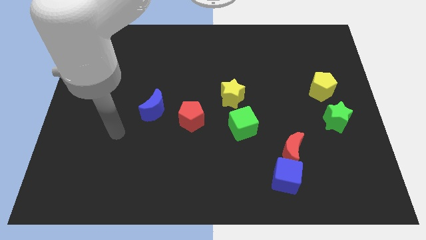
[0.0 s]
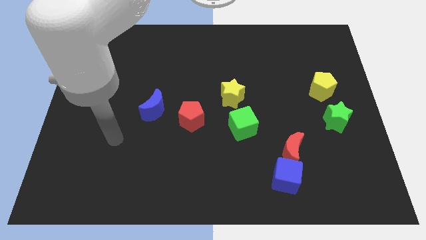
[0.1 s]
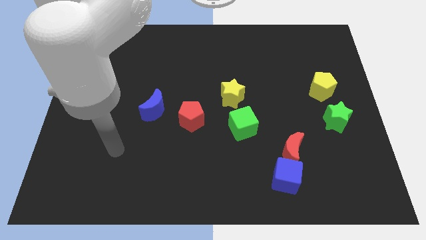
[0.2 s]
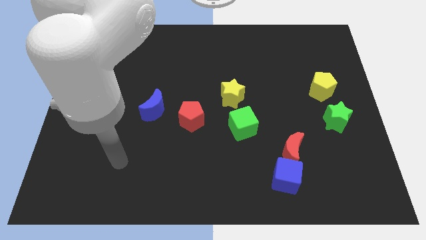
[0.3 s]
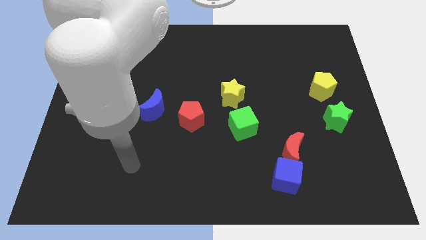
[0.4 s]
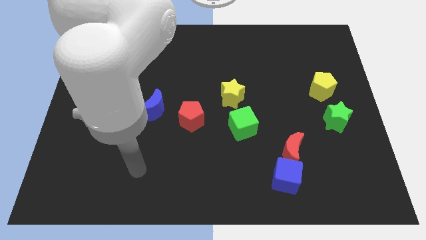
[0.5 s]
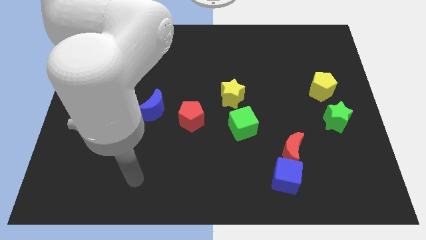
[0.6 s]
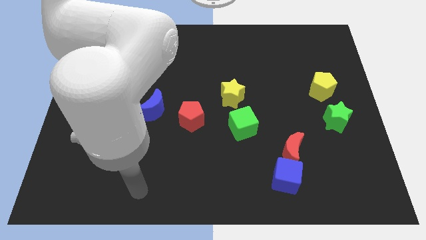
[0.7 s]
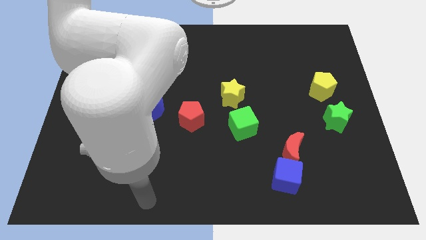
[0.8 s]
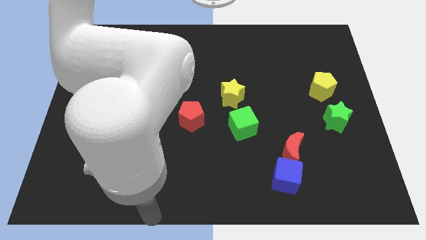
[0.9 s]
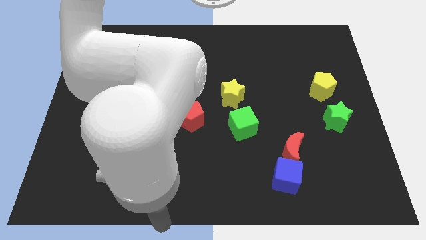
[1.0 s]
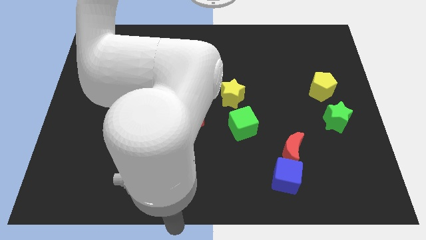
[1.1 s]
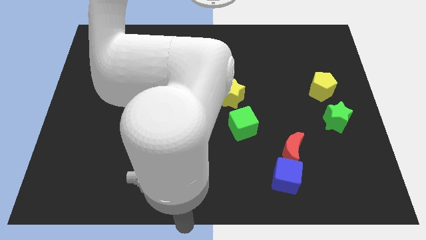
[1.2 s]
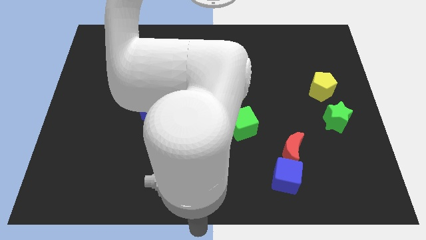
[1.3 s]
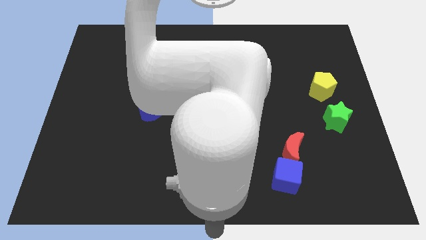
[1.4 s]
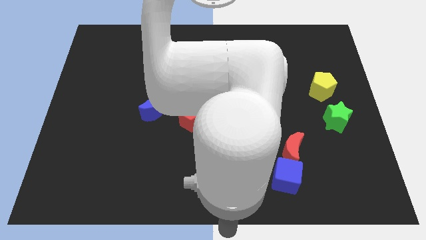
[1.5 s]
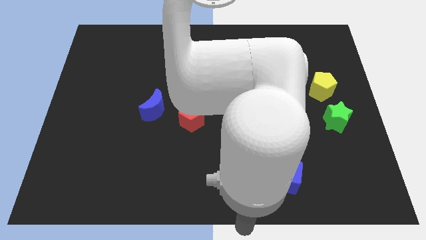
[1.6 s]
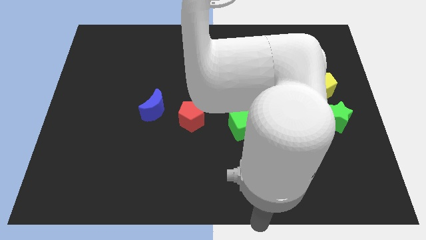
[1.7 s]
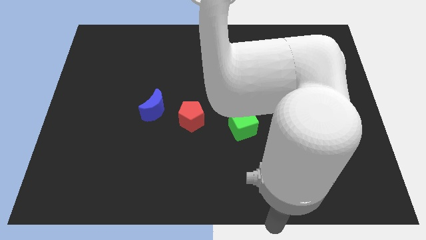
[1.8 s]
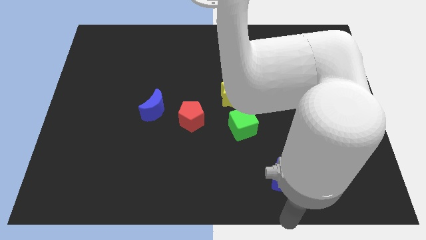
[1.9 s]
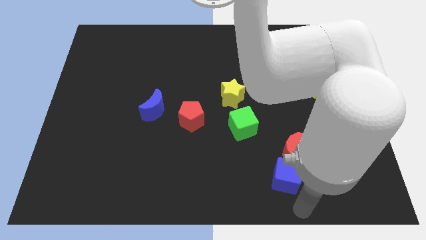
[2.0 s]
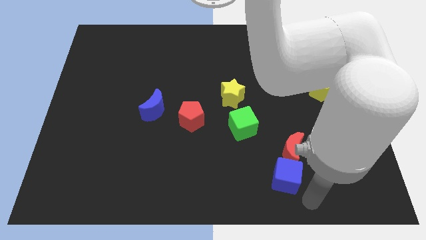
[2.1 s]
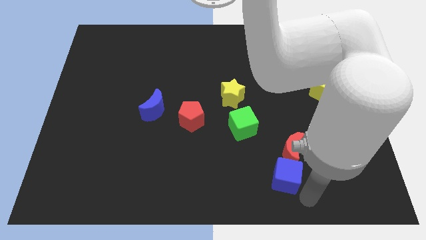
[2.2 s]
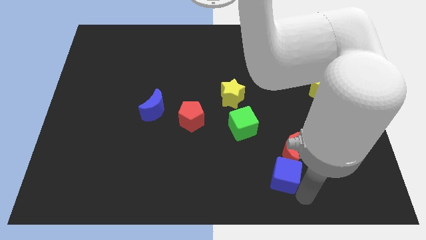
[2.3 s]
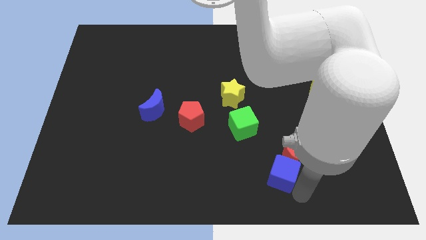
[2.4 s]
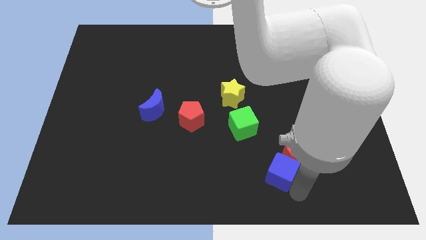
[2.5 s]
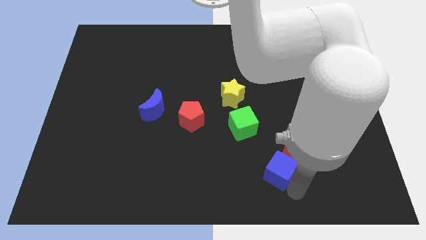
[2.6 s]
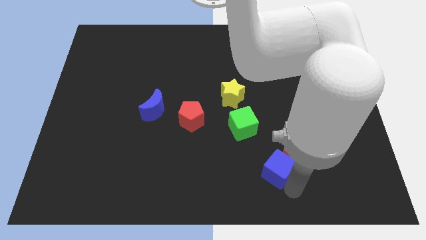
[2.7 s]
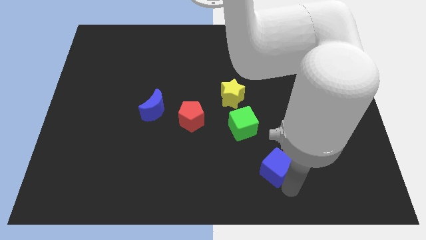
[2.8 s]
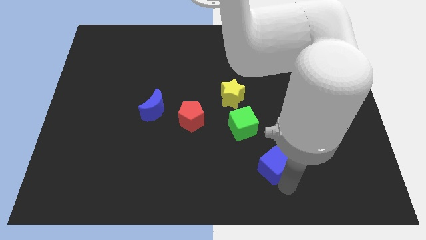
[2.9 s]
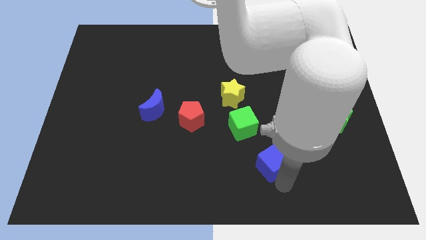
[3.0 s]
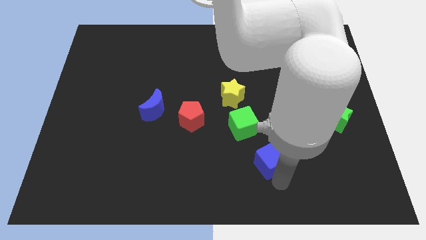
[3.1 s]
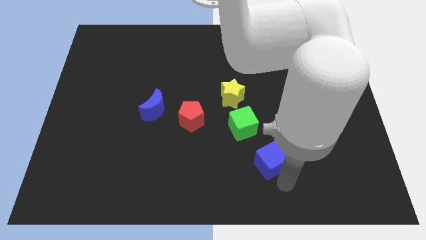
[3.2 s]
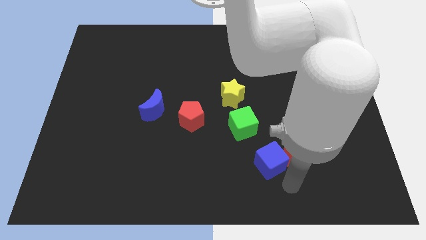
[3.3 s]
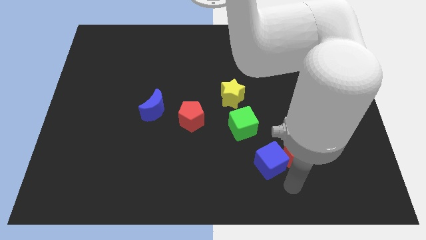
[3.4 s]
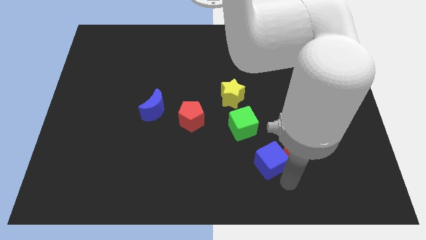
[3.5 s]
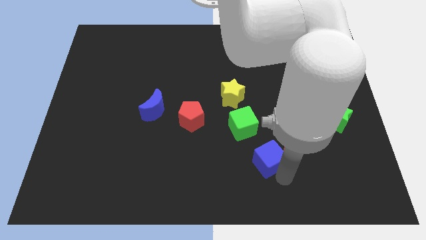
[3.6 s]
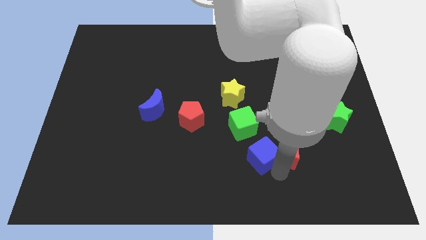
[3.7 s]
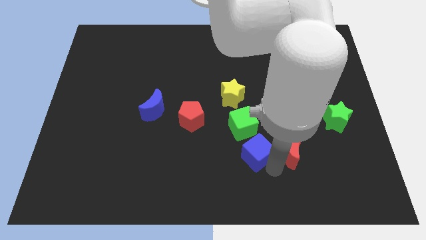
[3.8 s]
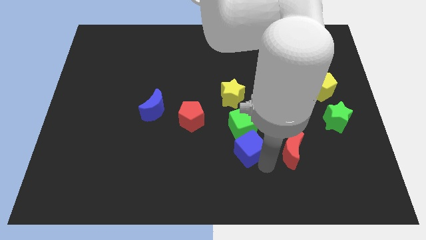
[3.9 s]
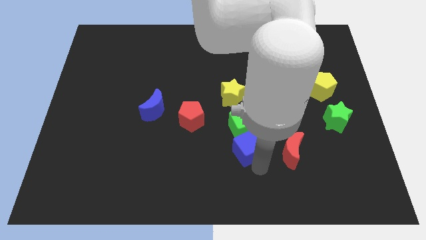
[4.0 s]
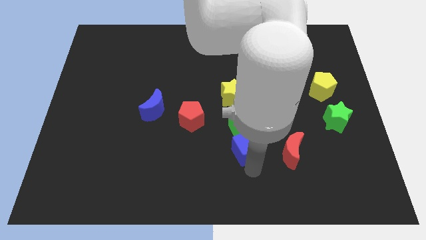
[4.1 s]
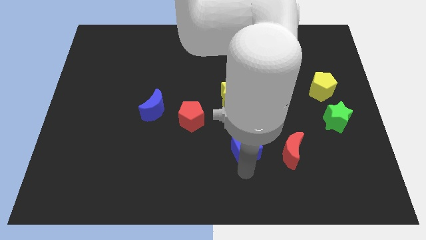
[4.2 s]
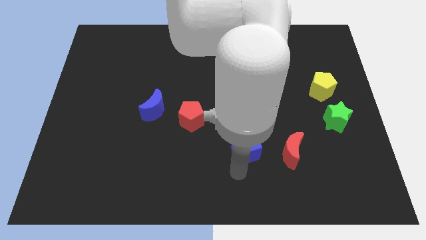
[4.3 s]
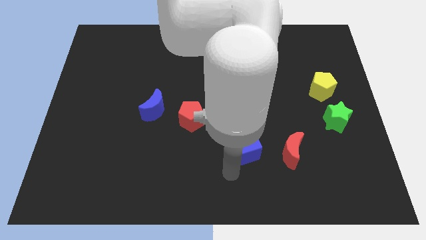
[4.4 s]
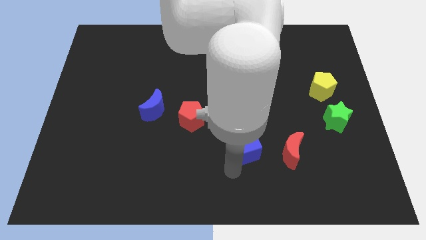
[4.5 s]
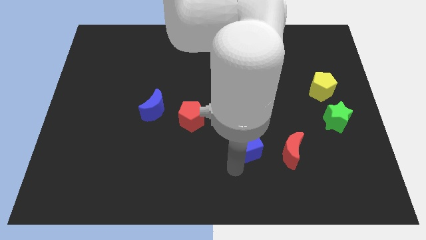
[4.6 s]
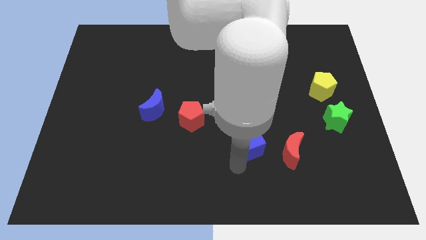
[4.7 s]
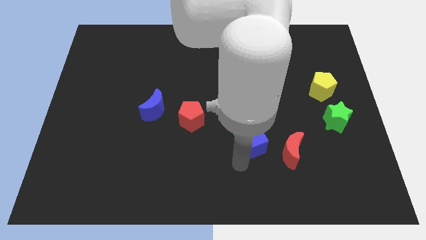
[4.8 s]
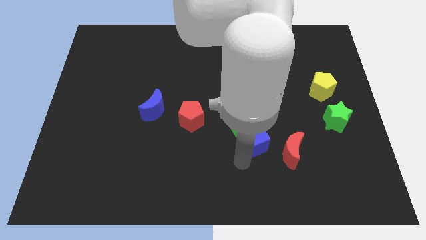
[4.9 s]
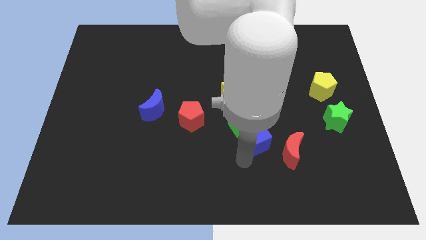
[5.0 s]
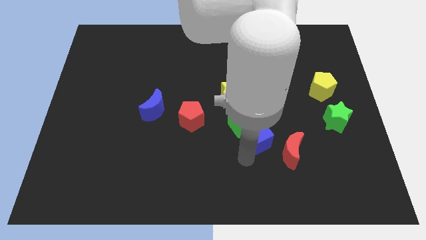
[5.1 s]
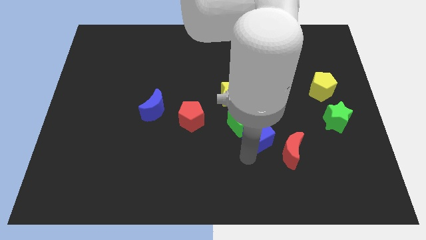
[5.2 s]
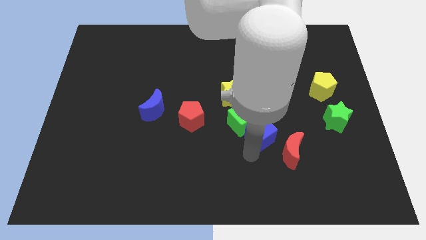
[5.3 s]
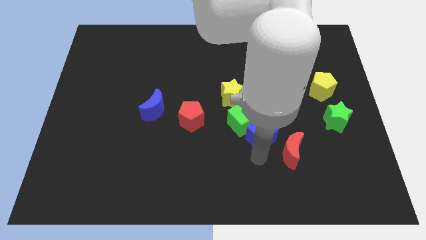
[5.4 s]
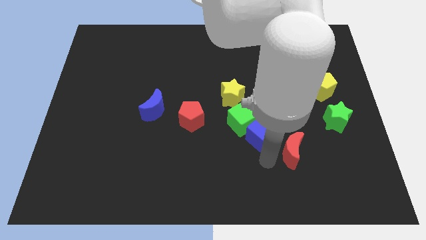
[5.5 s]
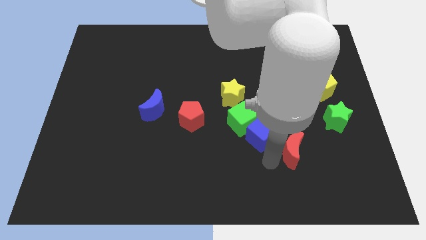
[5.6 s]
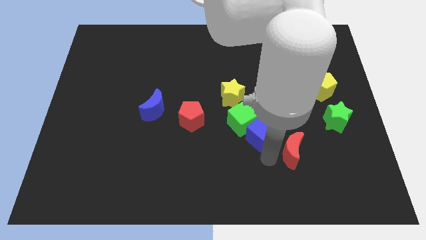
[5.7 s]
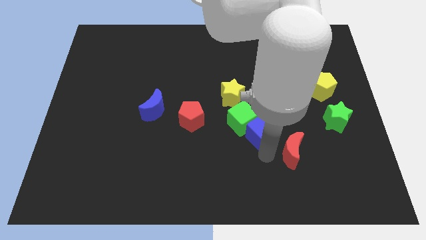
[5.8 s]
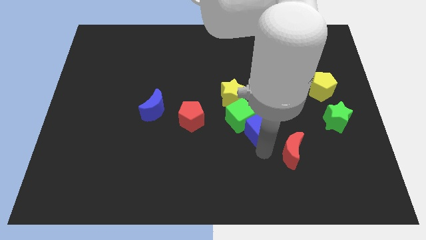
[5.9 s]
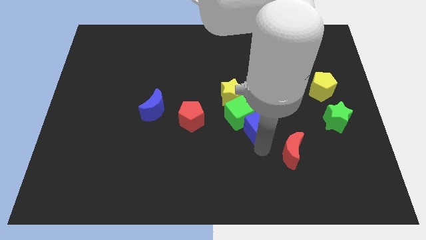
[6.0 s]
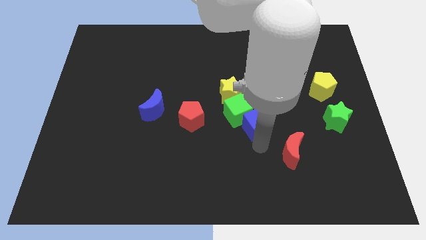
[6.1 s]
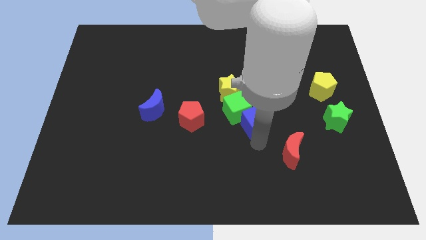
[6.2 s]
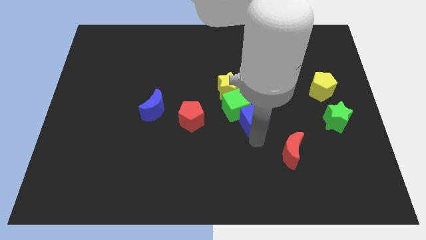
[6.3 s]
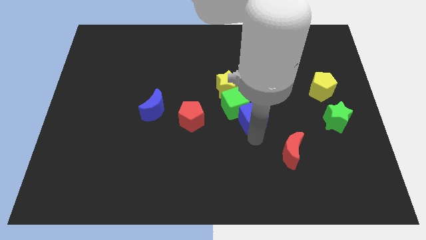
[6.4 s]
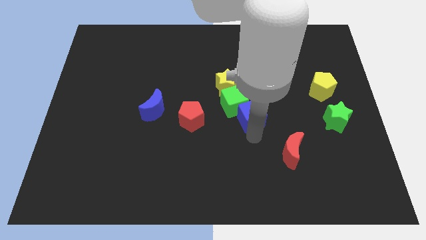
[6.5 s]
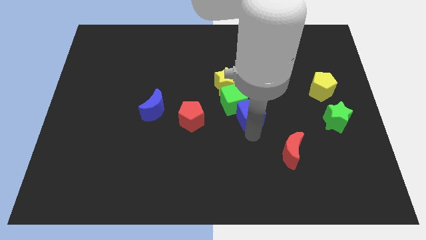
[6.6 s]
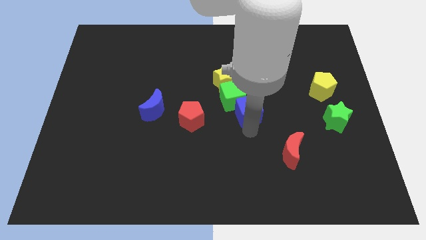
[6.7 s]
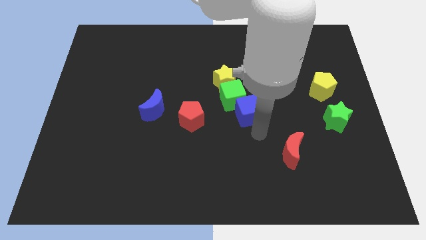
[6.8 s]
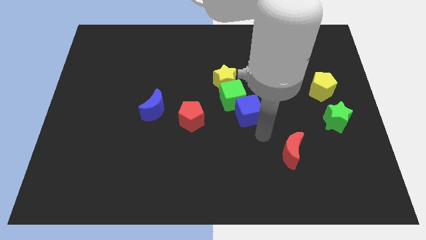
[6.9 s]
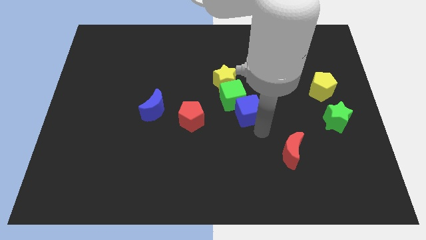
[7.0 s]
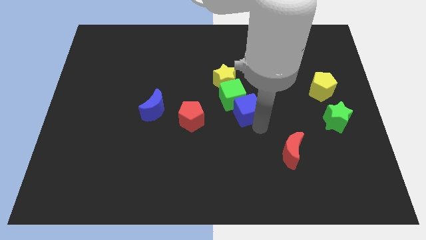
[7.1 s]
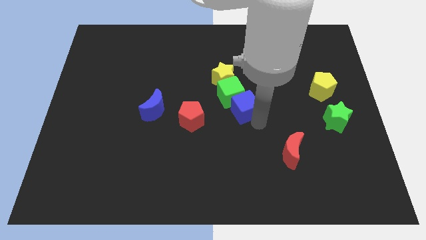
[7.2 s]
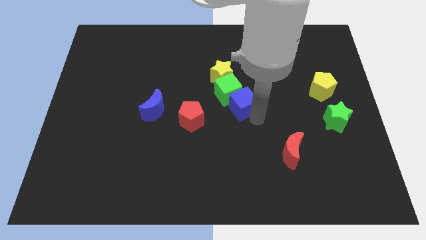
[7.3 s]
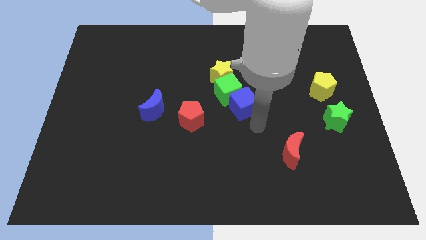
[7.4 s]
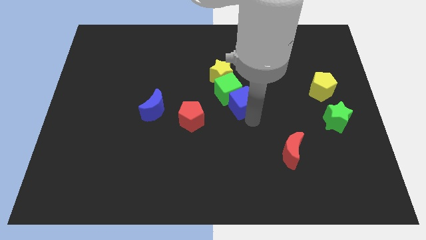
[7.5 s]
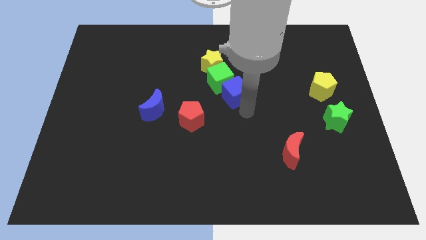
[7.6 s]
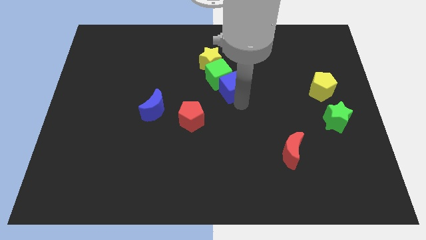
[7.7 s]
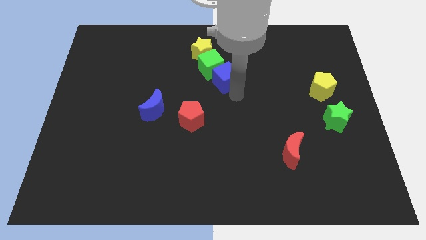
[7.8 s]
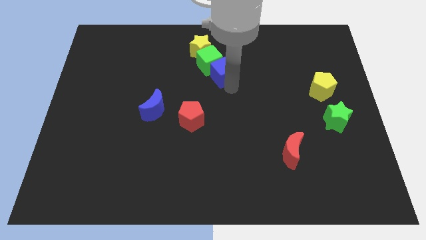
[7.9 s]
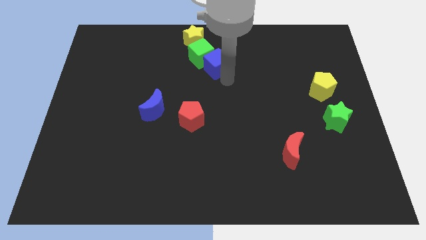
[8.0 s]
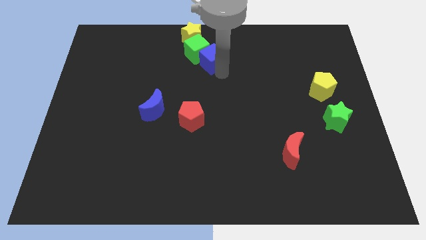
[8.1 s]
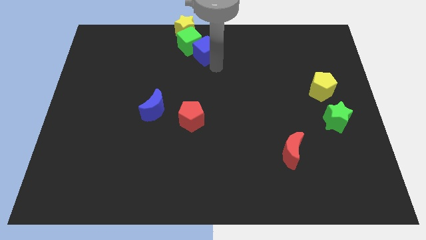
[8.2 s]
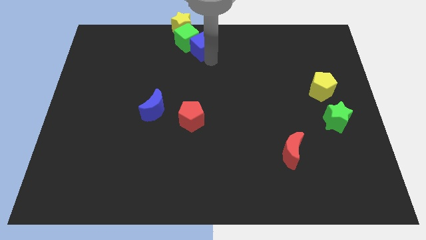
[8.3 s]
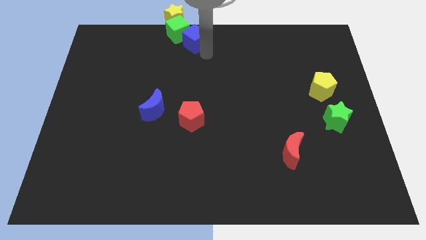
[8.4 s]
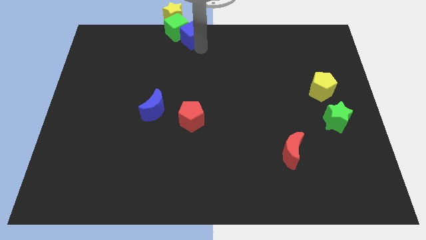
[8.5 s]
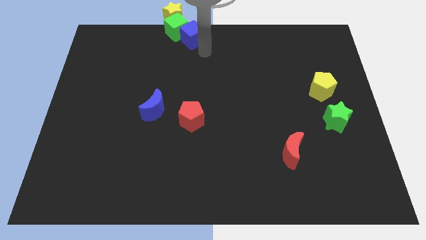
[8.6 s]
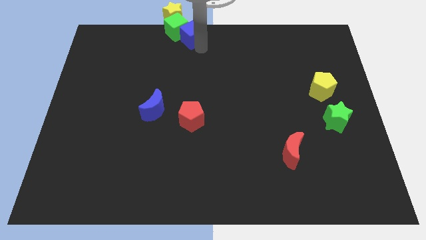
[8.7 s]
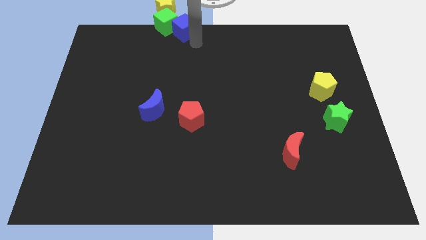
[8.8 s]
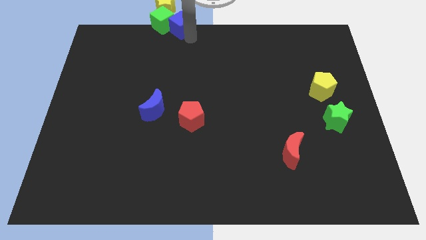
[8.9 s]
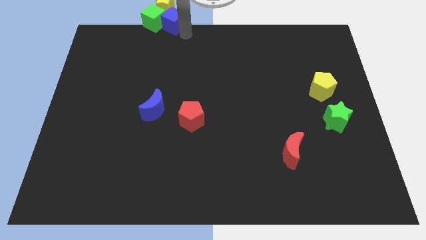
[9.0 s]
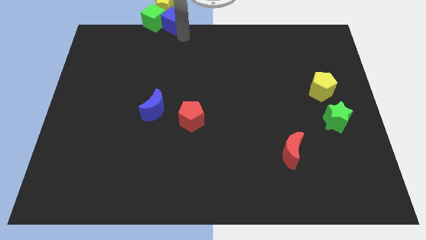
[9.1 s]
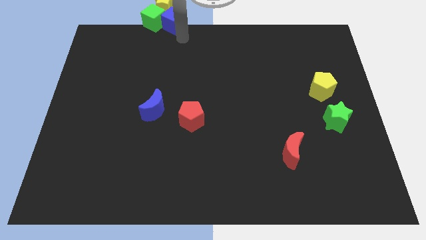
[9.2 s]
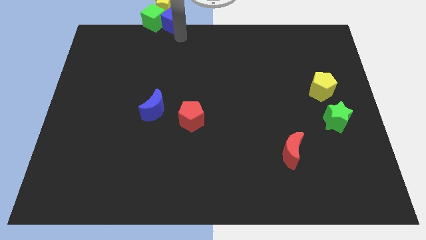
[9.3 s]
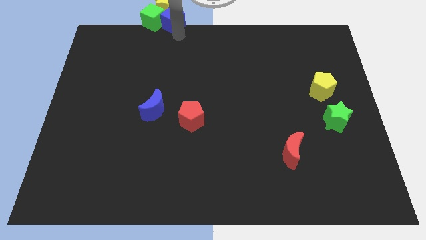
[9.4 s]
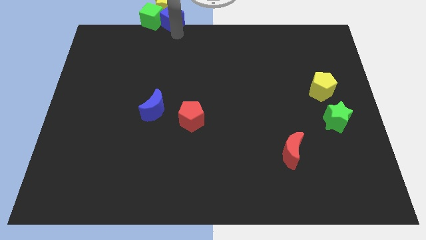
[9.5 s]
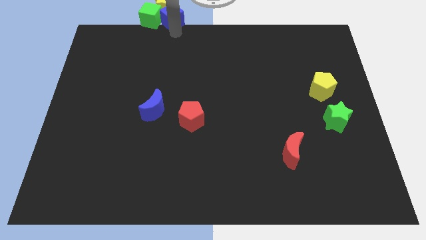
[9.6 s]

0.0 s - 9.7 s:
push the blue cube to the yellow star
